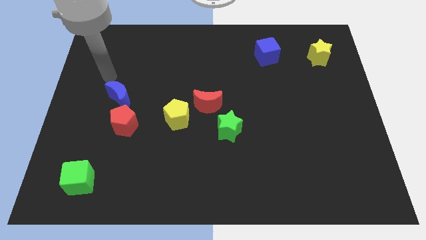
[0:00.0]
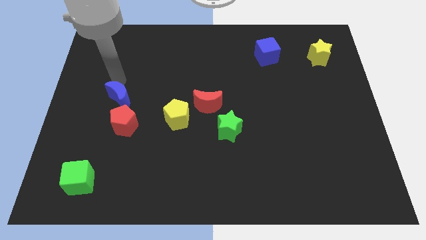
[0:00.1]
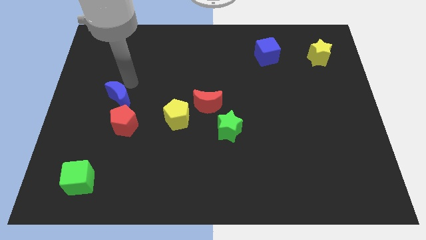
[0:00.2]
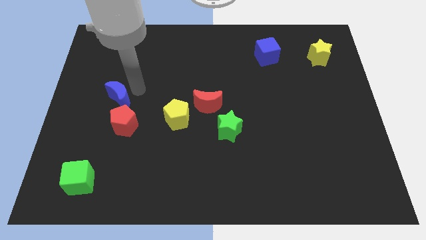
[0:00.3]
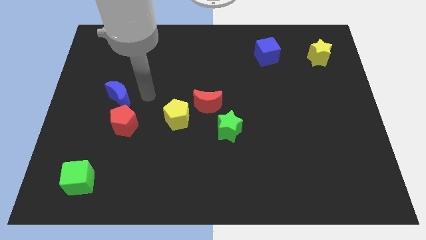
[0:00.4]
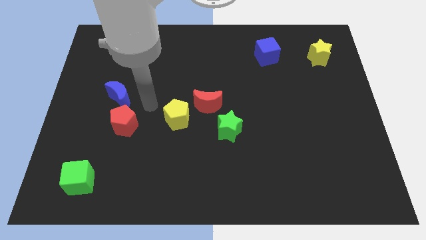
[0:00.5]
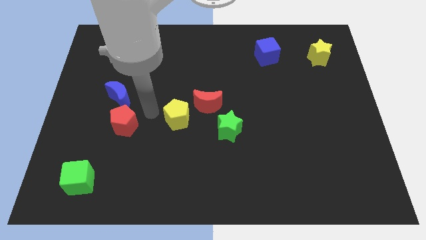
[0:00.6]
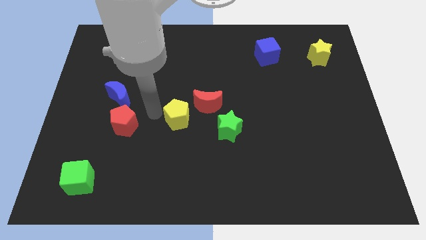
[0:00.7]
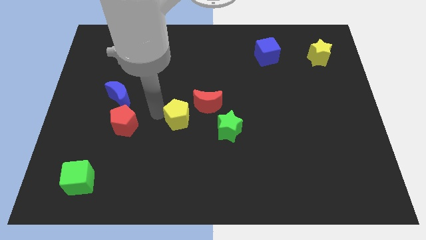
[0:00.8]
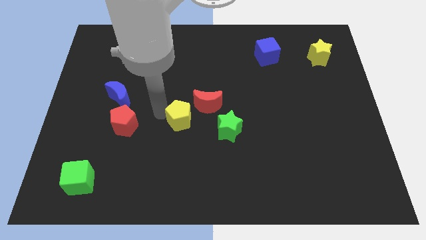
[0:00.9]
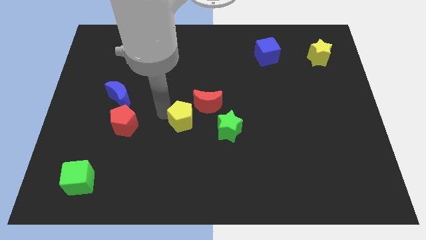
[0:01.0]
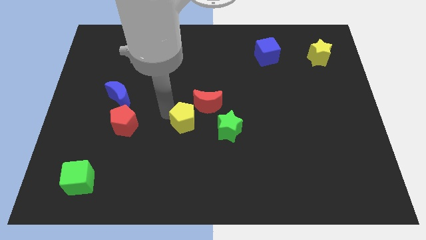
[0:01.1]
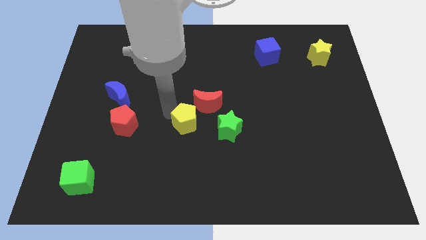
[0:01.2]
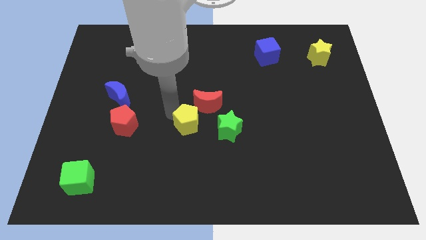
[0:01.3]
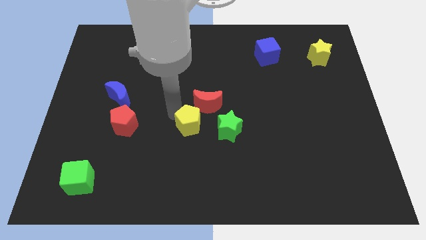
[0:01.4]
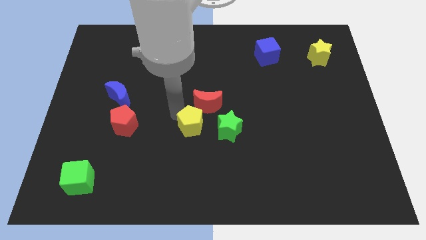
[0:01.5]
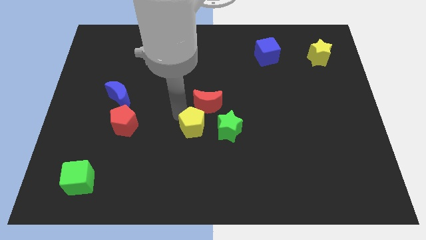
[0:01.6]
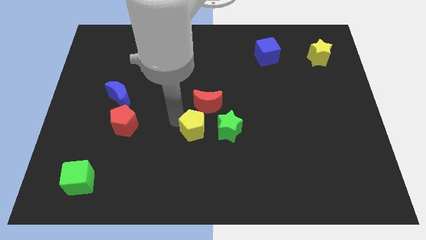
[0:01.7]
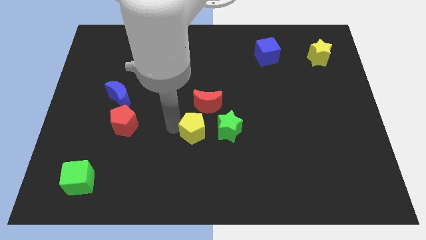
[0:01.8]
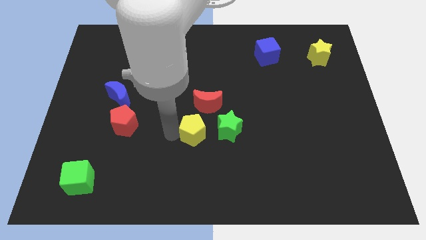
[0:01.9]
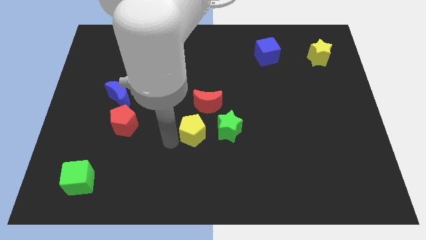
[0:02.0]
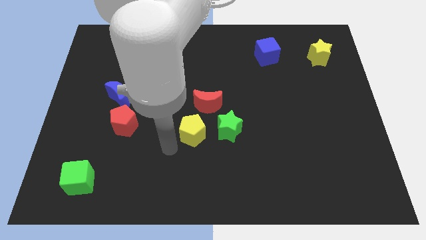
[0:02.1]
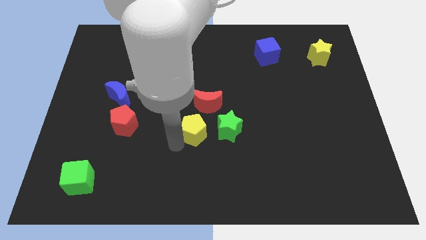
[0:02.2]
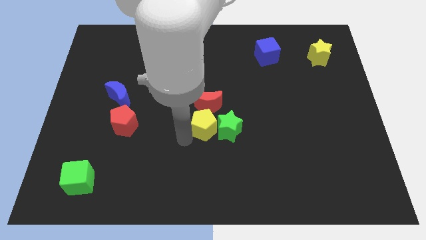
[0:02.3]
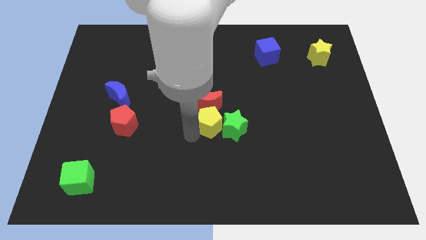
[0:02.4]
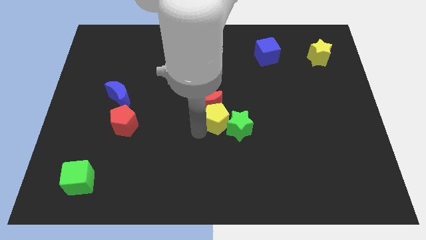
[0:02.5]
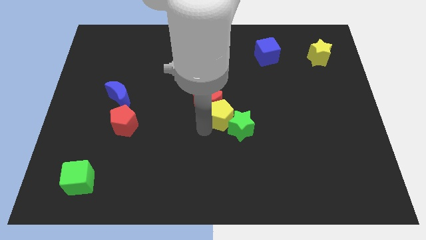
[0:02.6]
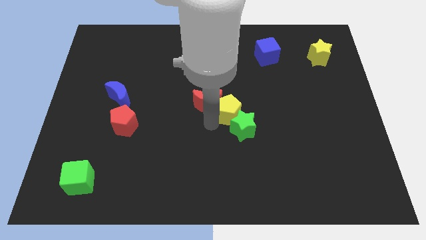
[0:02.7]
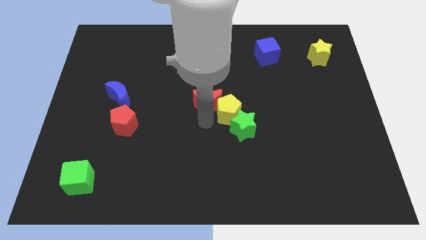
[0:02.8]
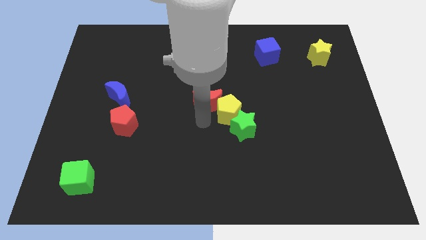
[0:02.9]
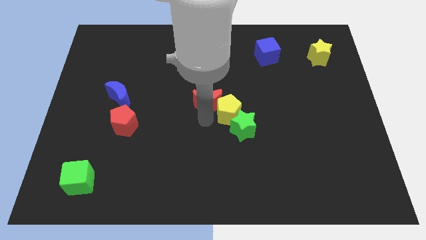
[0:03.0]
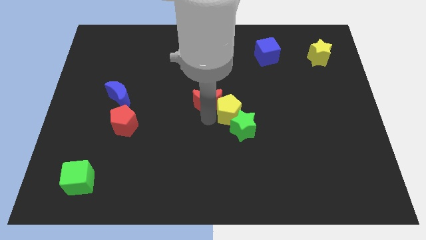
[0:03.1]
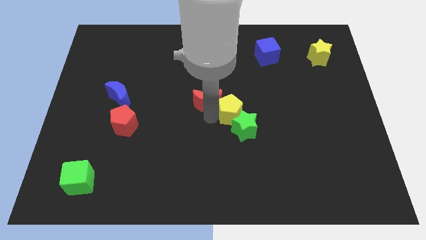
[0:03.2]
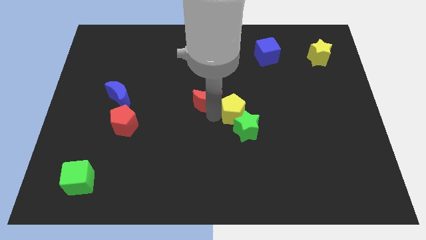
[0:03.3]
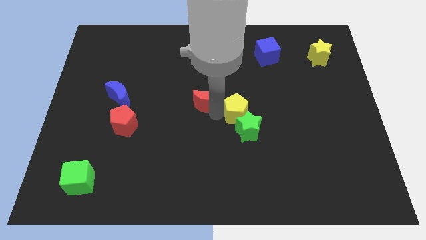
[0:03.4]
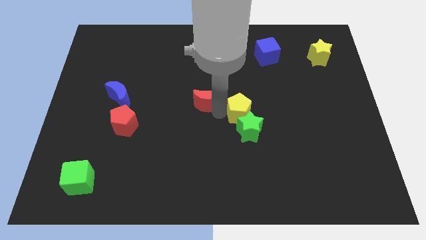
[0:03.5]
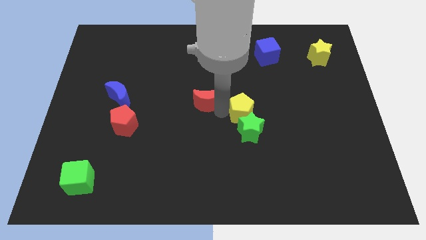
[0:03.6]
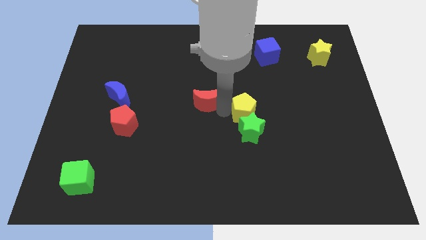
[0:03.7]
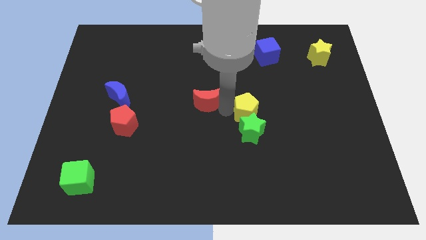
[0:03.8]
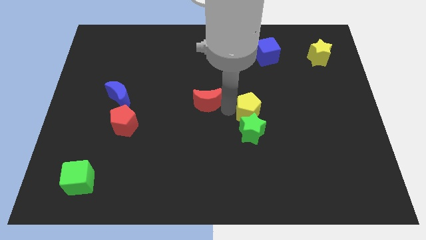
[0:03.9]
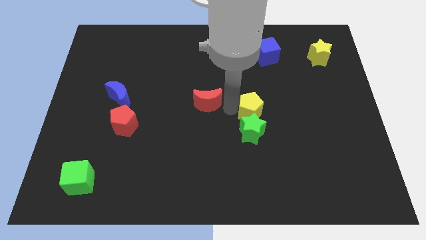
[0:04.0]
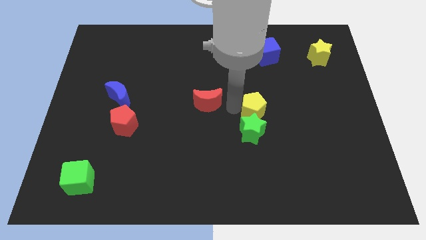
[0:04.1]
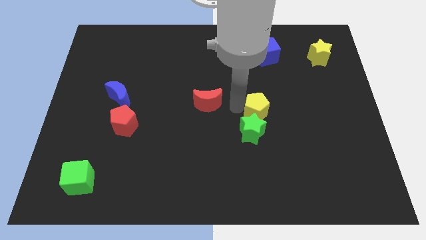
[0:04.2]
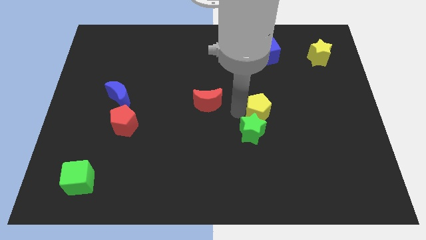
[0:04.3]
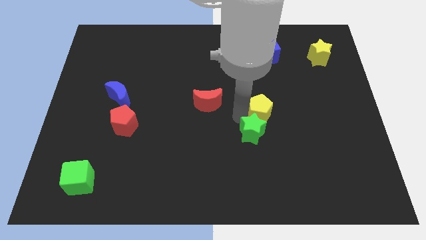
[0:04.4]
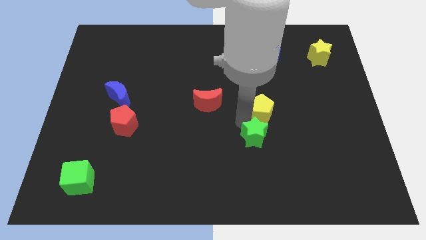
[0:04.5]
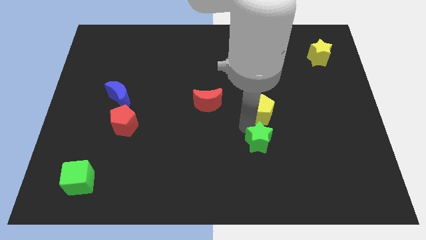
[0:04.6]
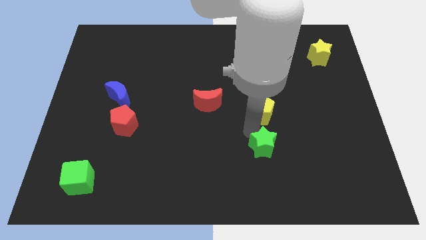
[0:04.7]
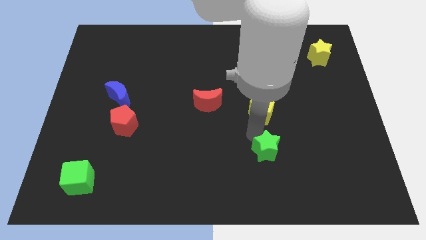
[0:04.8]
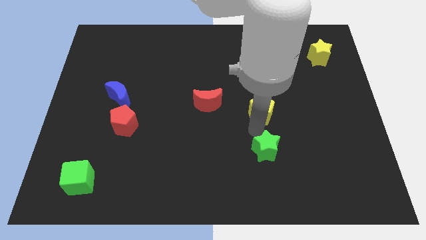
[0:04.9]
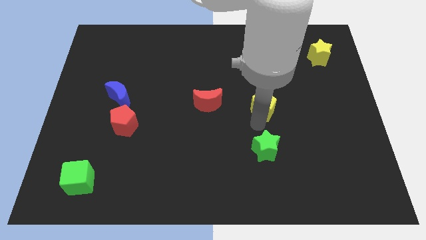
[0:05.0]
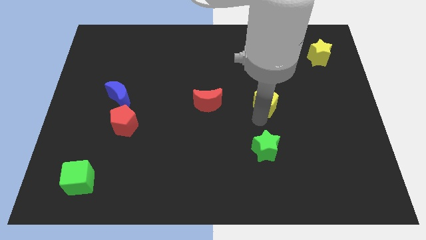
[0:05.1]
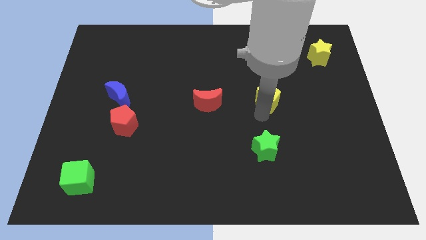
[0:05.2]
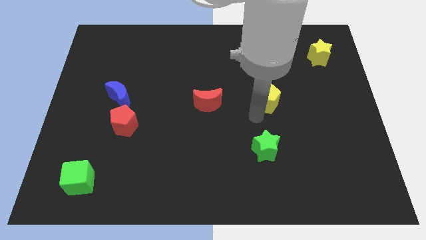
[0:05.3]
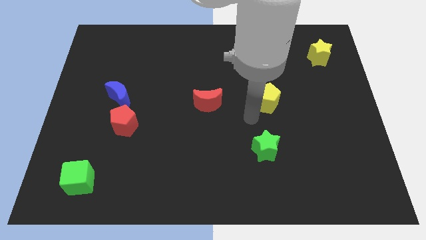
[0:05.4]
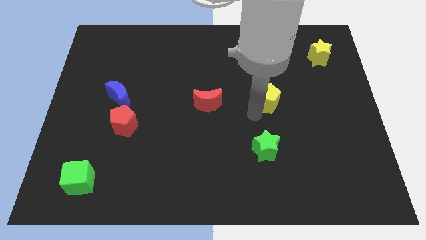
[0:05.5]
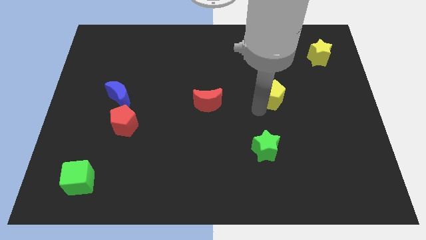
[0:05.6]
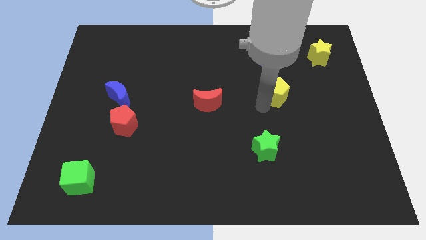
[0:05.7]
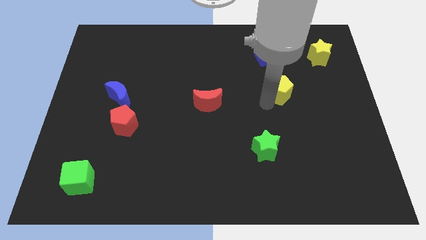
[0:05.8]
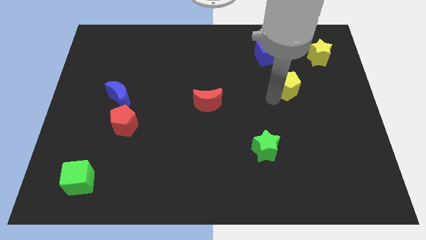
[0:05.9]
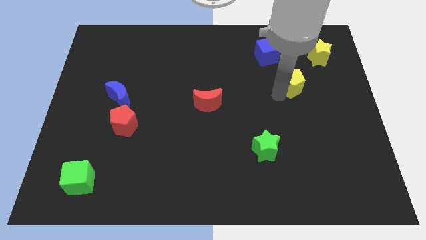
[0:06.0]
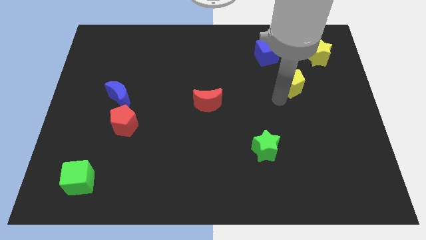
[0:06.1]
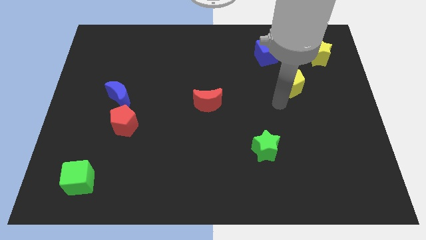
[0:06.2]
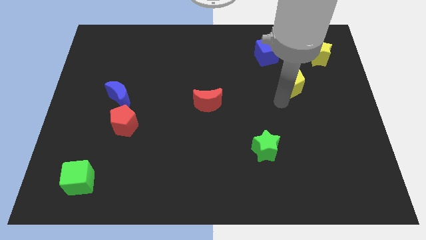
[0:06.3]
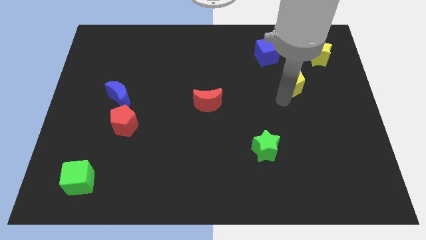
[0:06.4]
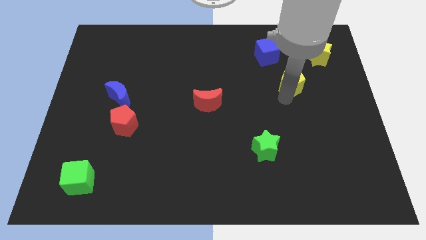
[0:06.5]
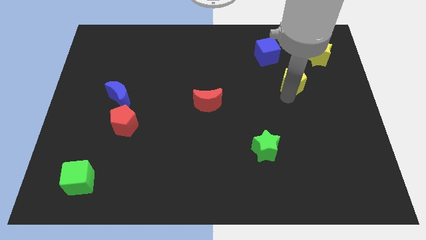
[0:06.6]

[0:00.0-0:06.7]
push the yellow pentagon diagonally down and to the left of the yellow star

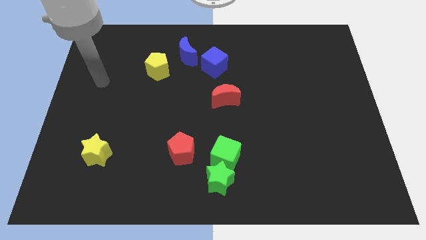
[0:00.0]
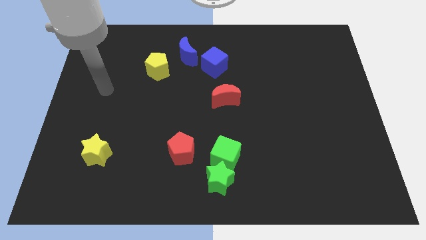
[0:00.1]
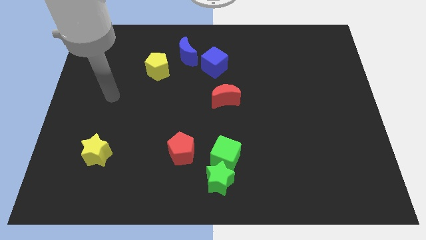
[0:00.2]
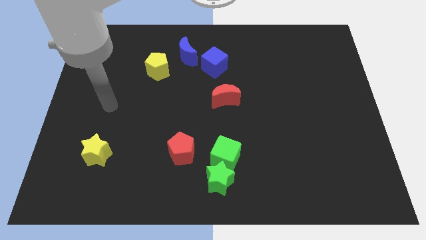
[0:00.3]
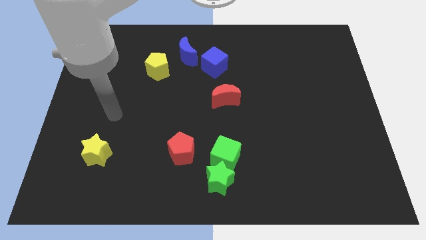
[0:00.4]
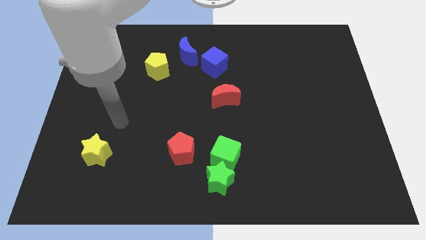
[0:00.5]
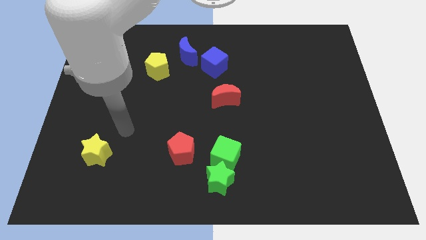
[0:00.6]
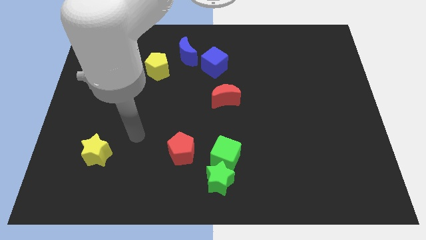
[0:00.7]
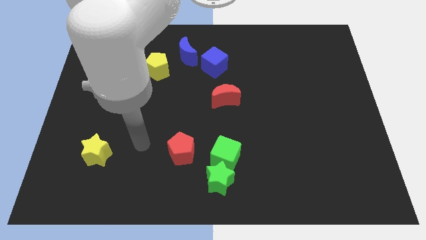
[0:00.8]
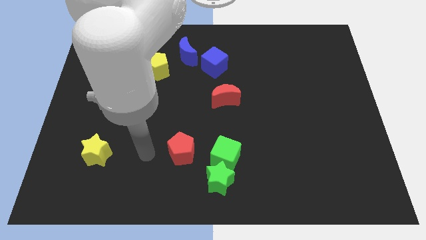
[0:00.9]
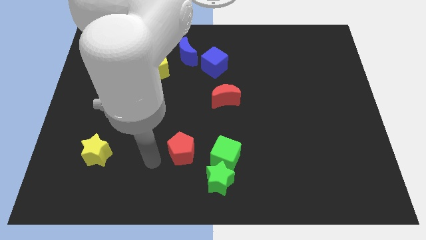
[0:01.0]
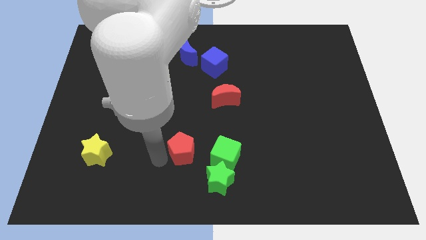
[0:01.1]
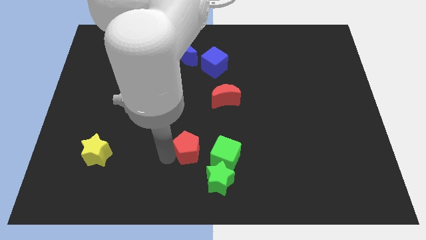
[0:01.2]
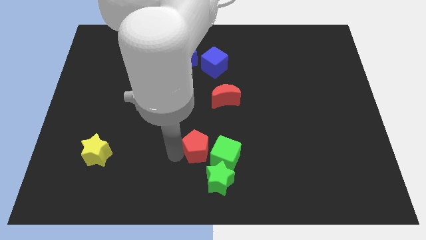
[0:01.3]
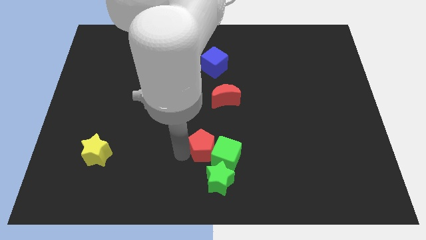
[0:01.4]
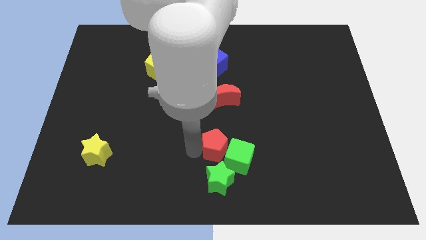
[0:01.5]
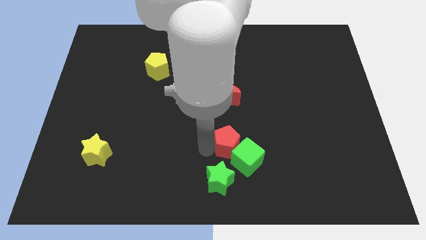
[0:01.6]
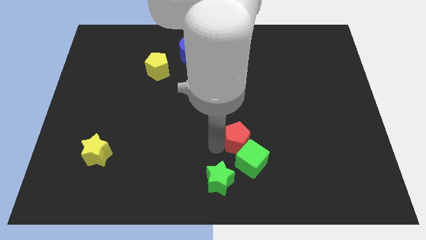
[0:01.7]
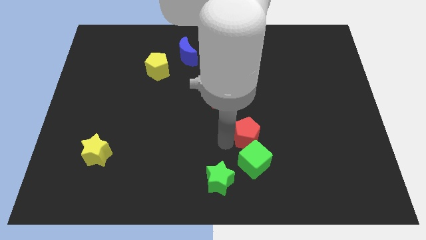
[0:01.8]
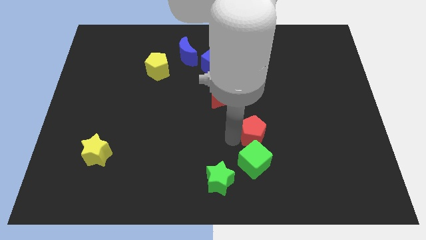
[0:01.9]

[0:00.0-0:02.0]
slide the red pentagon diagonally up and to the right of the green cube
